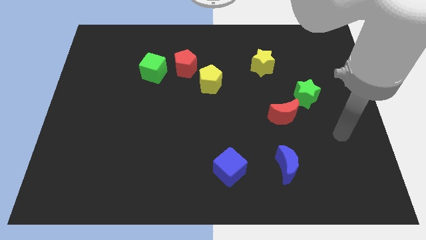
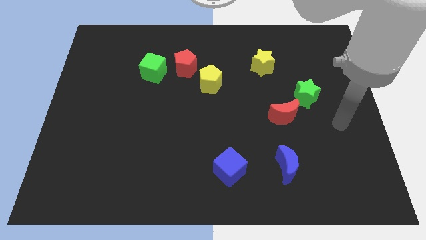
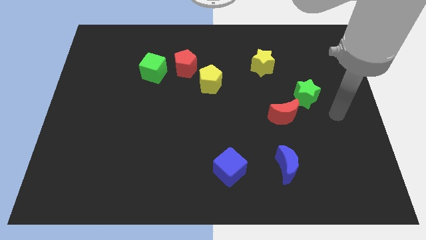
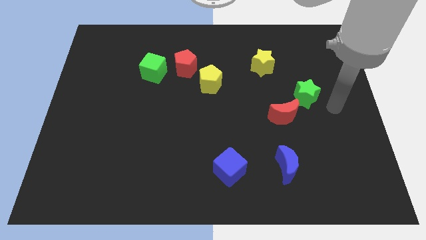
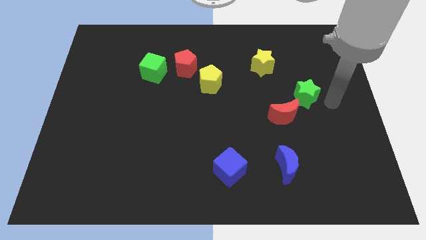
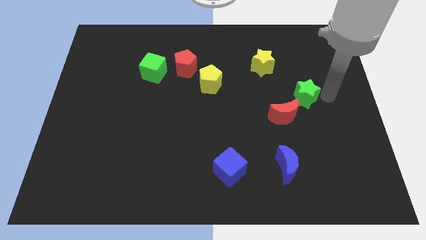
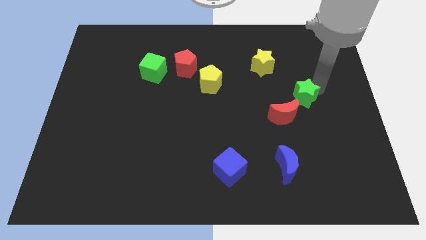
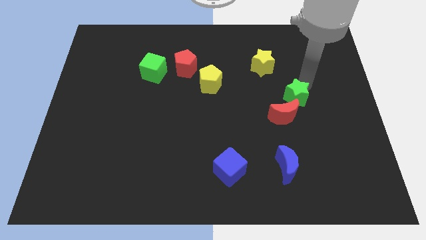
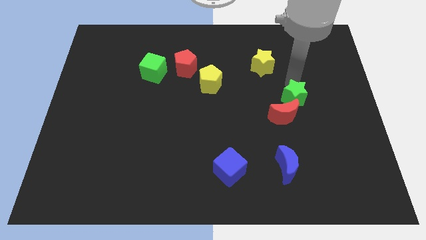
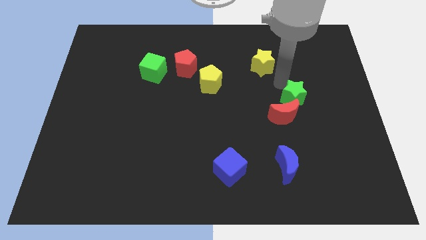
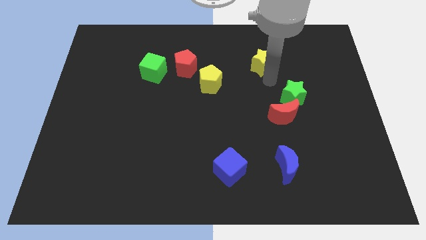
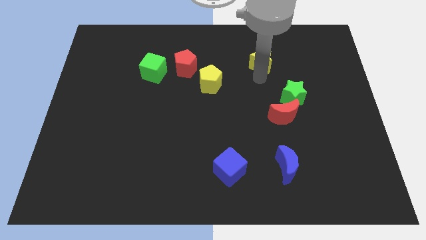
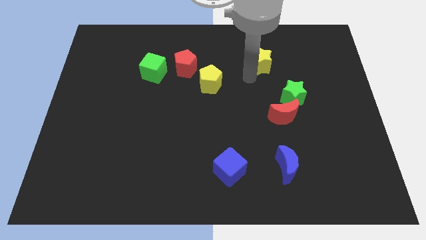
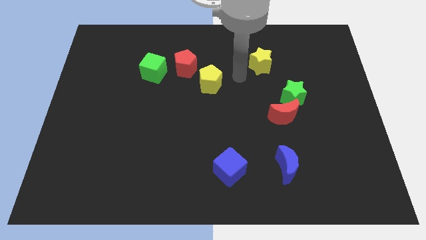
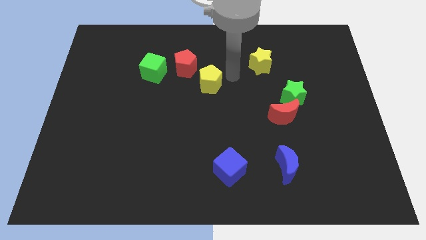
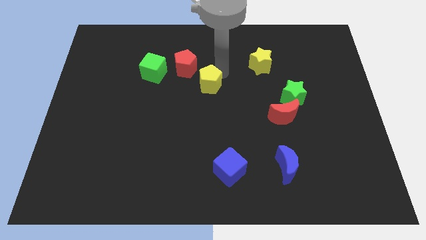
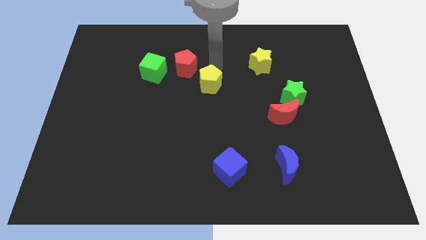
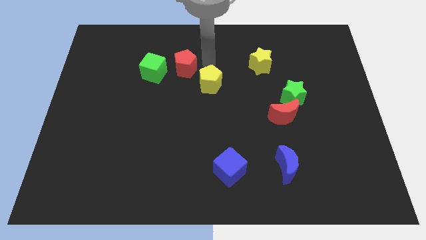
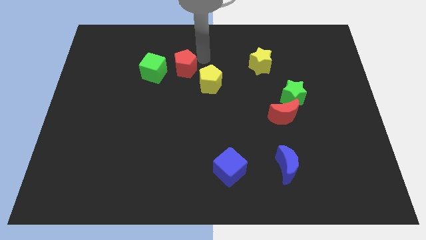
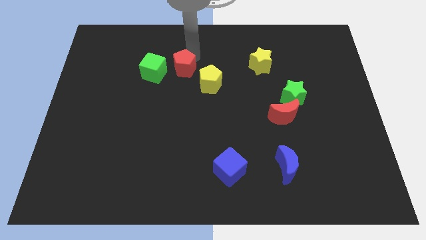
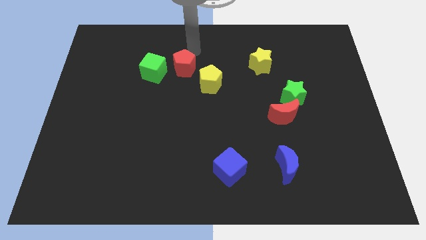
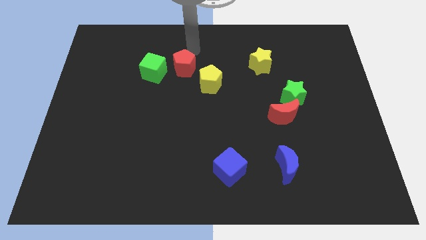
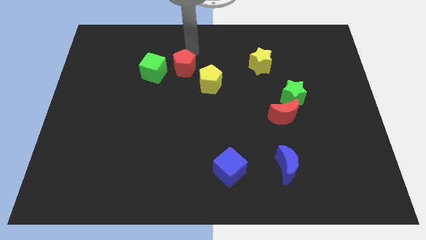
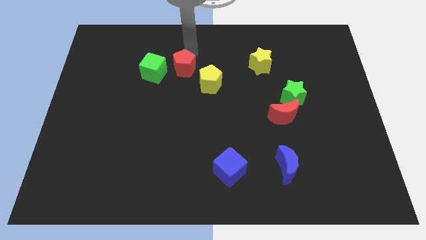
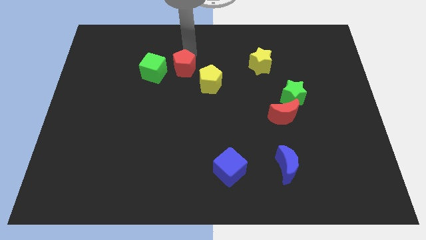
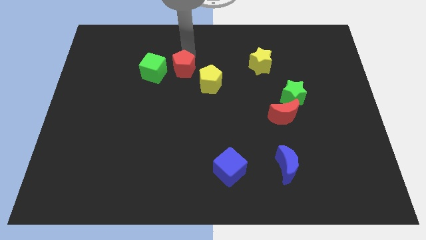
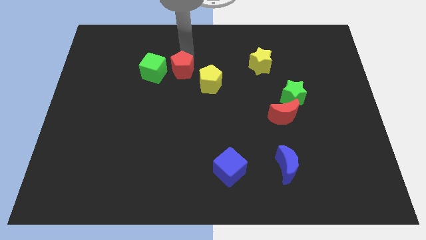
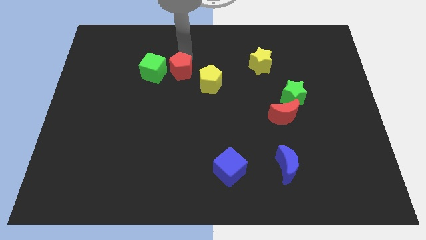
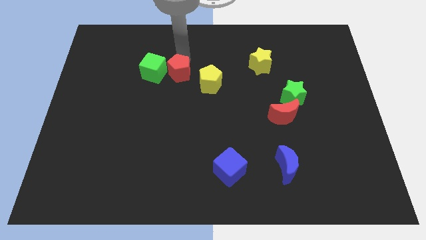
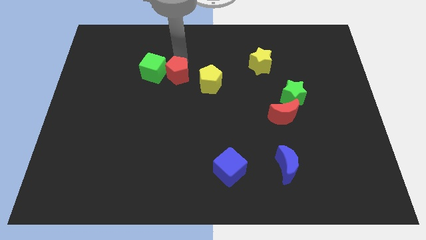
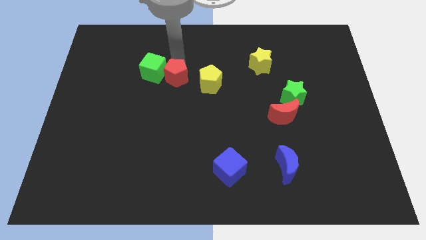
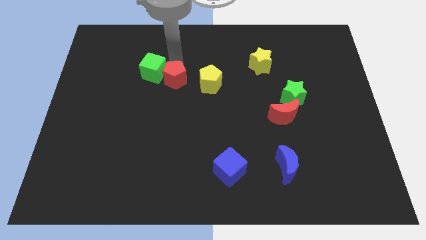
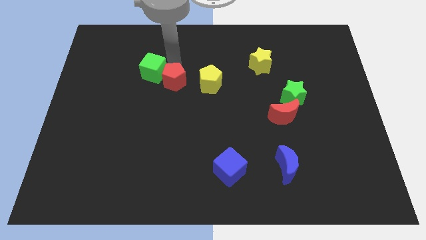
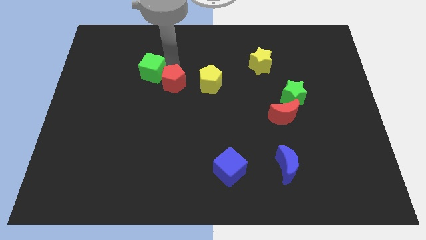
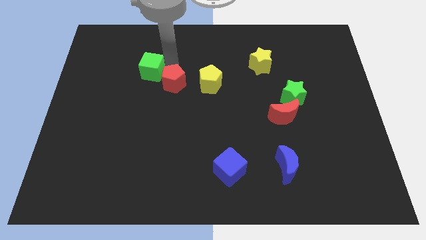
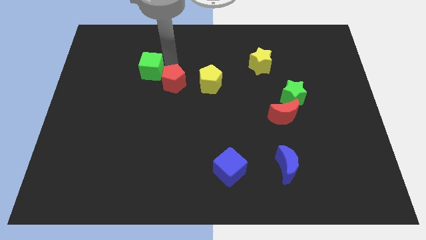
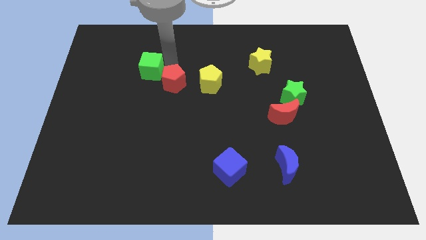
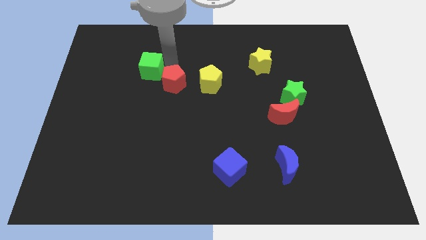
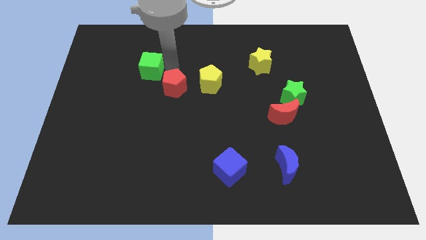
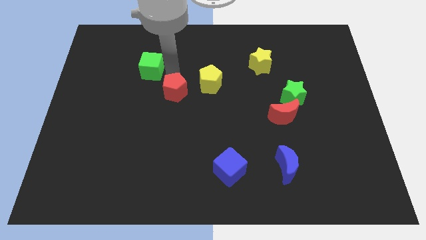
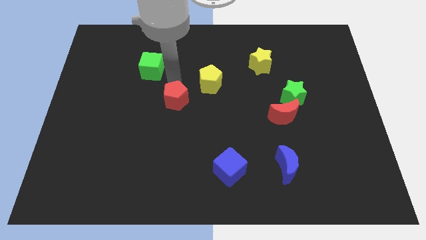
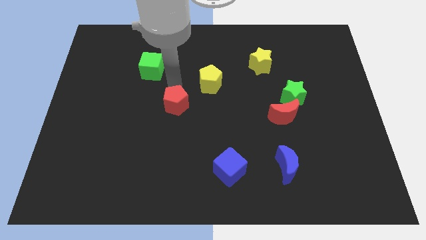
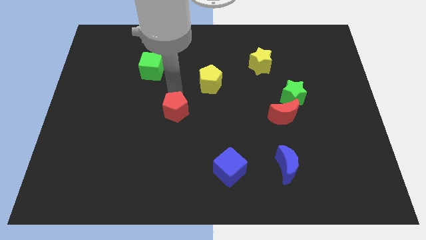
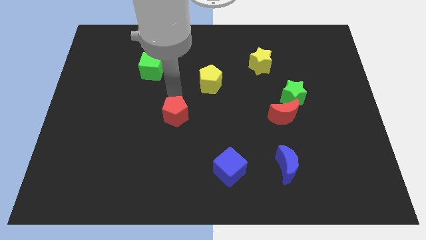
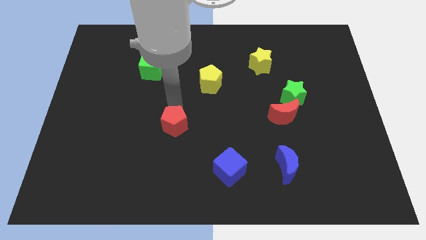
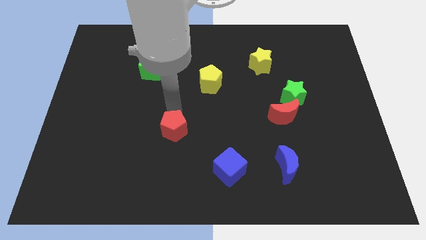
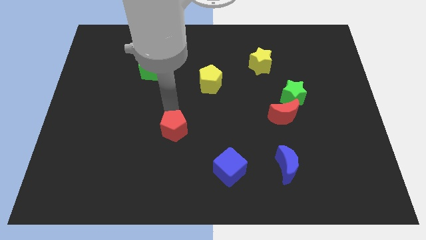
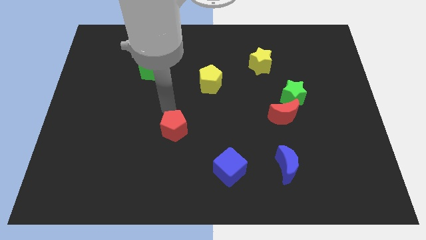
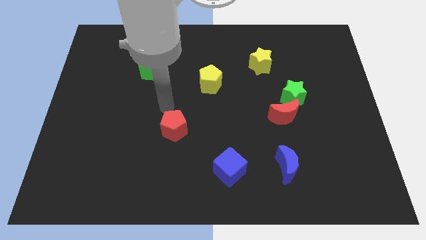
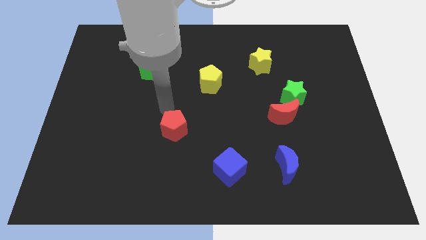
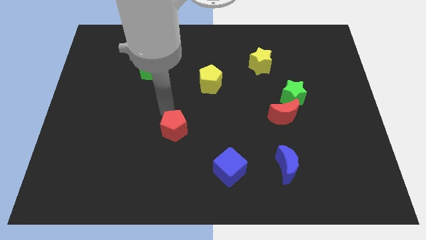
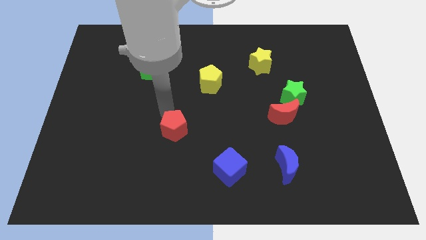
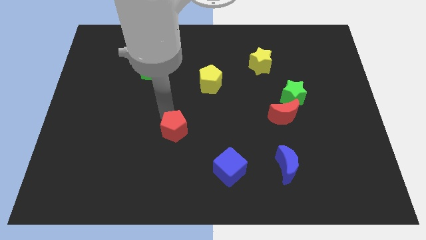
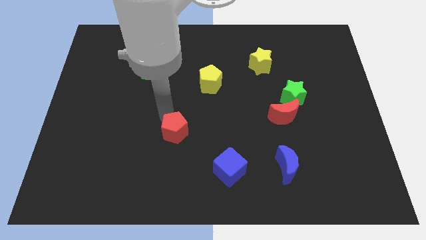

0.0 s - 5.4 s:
move the red pentagon downwards

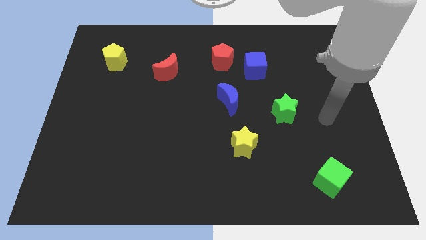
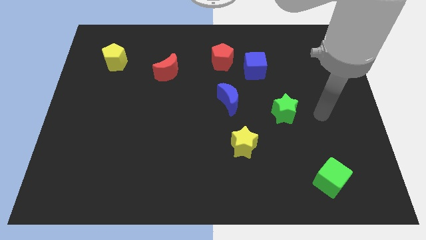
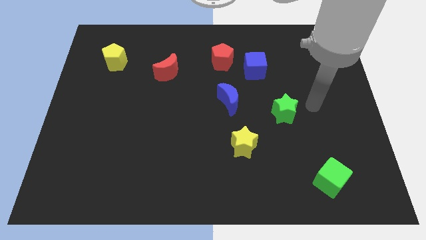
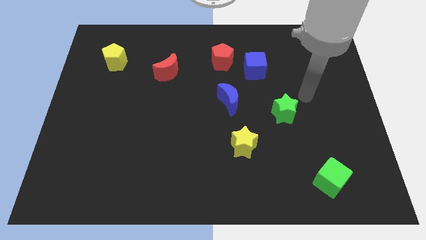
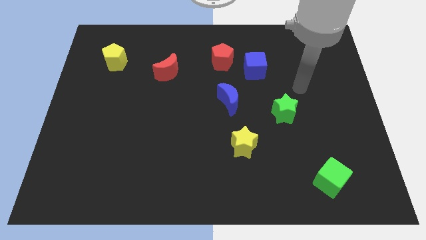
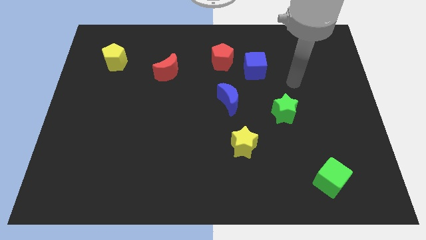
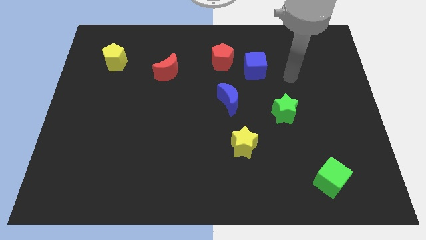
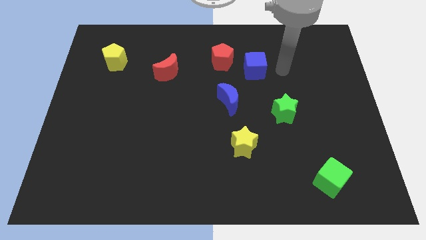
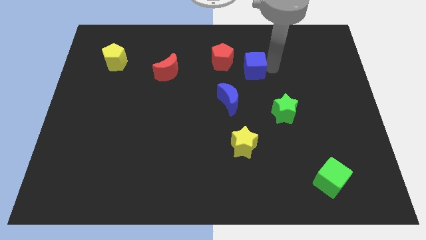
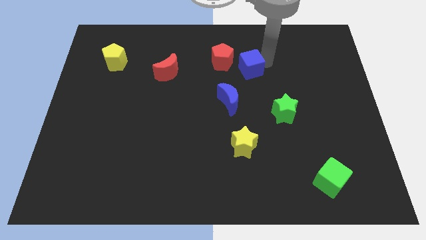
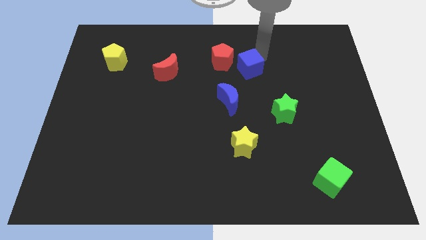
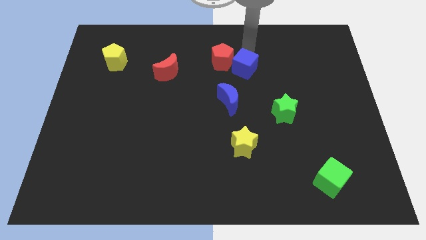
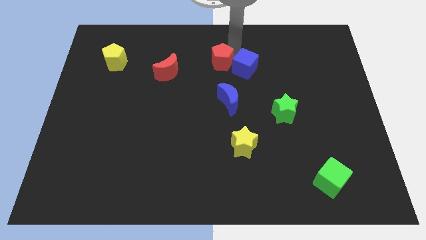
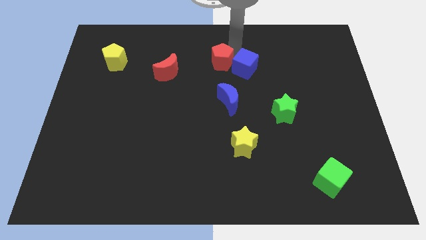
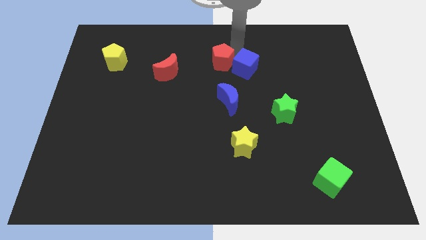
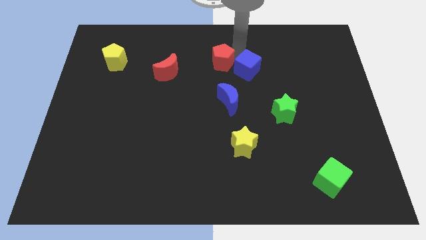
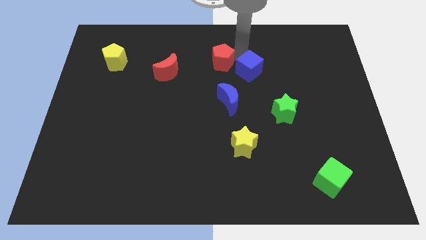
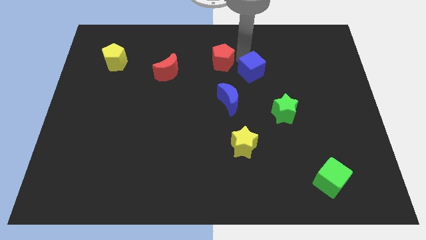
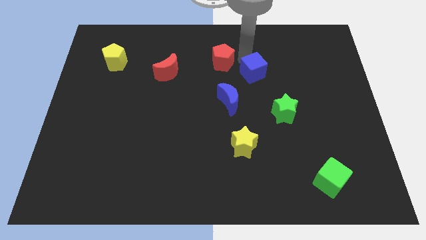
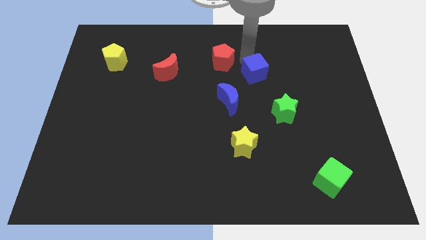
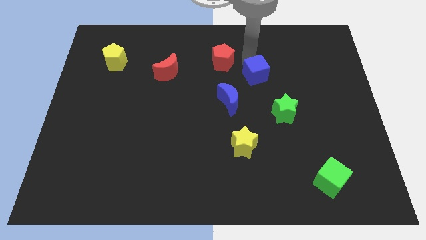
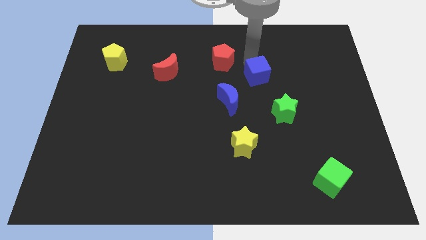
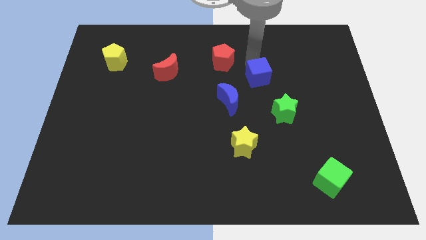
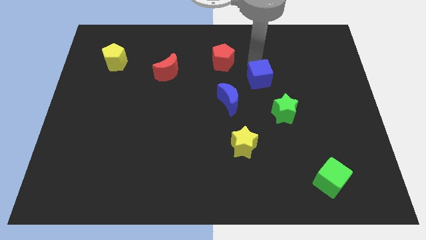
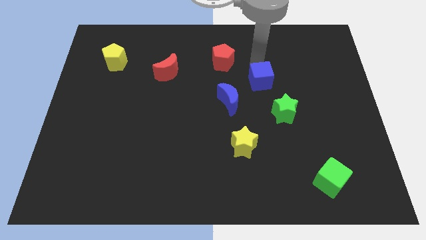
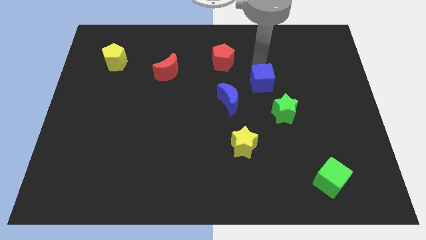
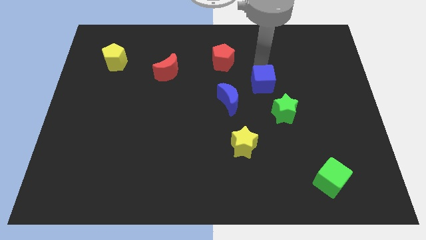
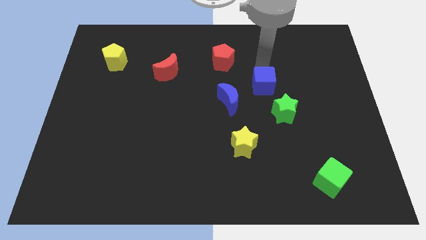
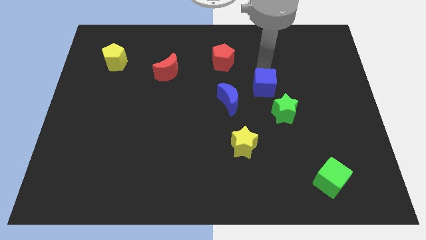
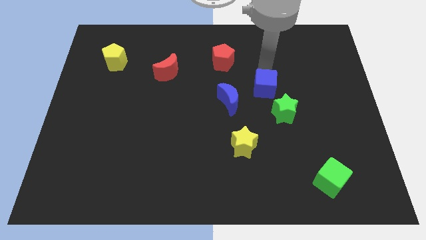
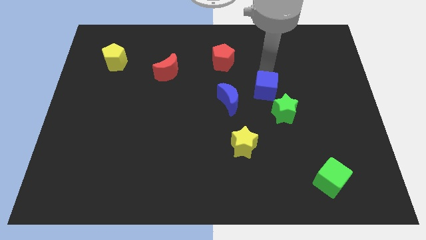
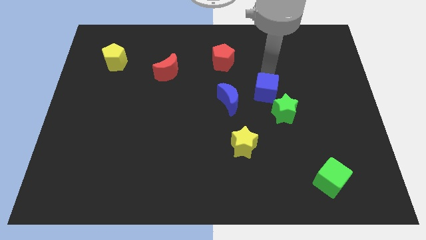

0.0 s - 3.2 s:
slightly push the blue cube down
